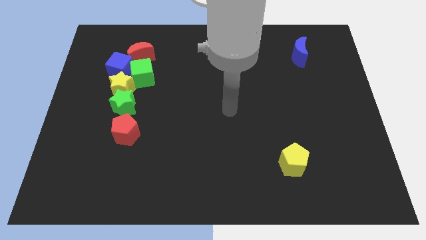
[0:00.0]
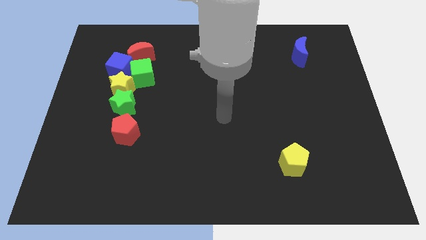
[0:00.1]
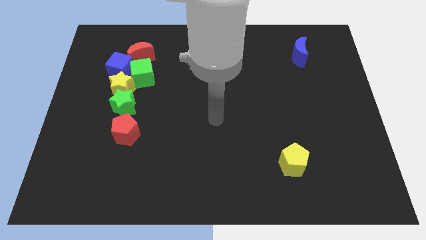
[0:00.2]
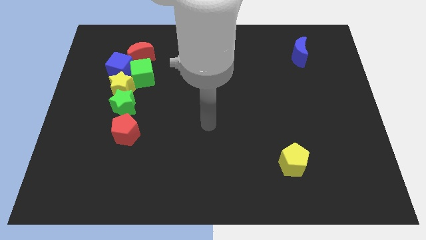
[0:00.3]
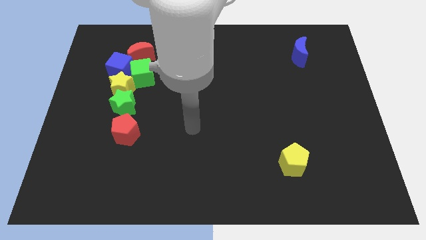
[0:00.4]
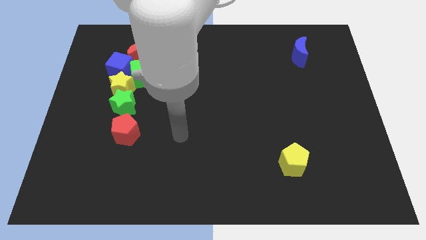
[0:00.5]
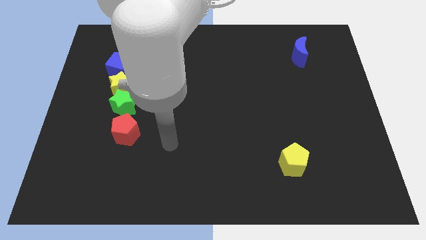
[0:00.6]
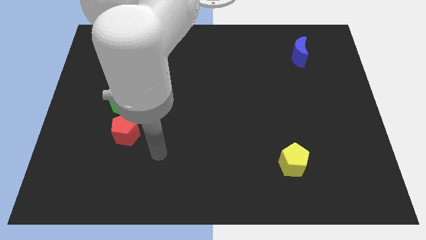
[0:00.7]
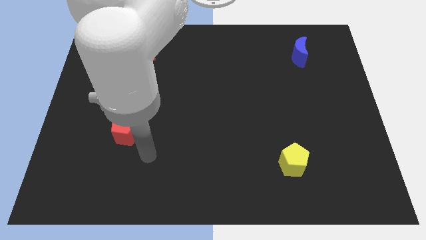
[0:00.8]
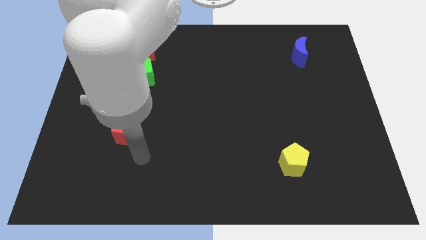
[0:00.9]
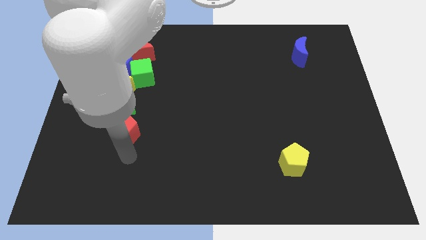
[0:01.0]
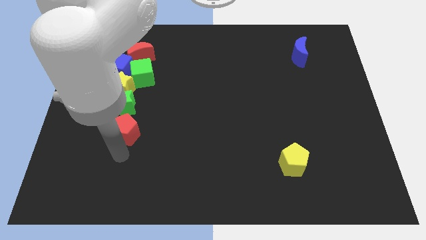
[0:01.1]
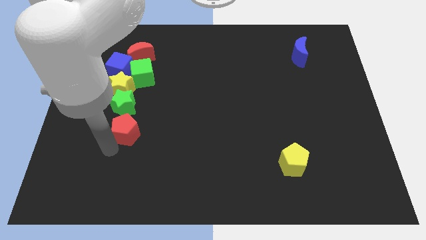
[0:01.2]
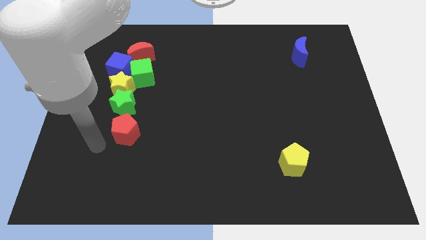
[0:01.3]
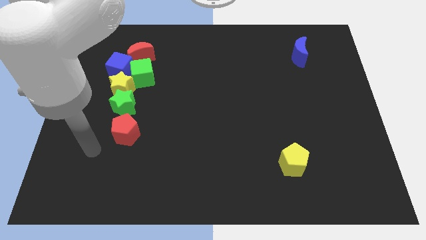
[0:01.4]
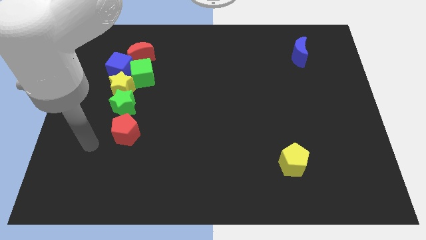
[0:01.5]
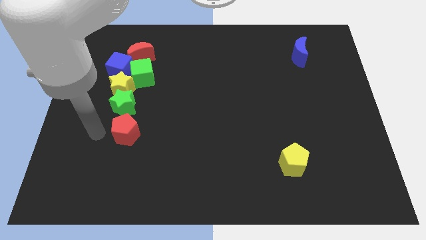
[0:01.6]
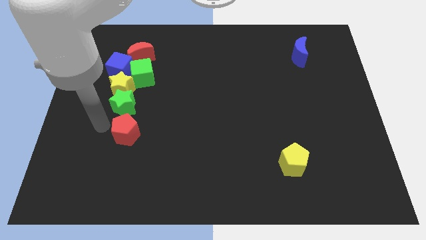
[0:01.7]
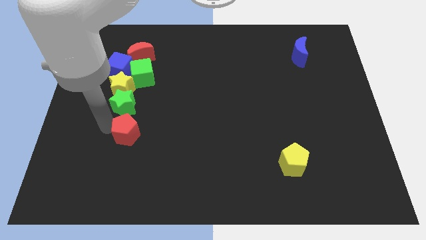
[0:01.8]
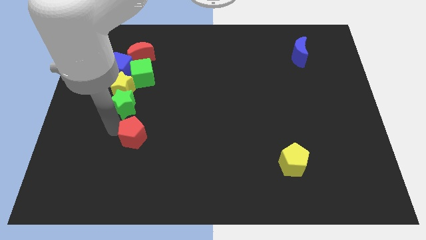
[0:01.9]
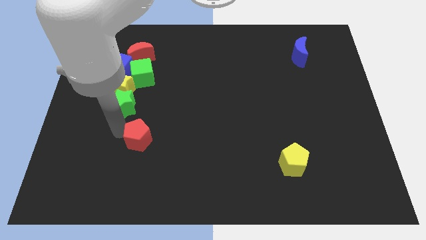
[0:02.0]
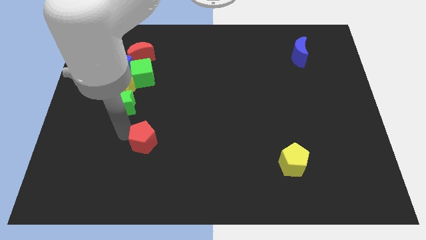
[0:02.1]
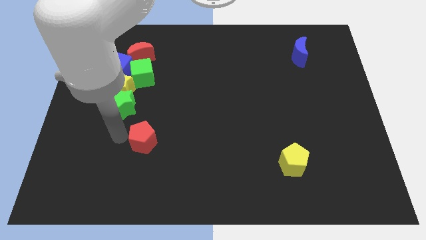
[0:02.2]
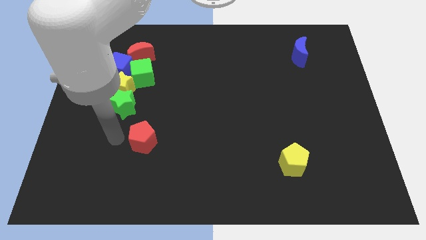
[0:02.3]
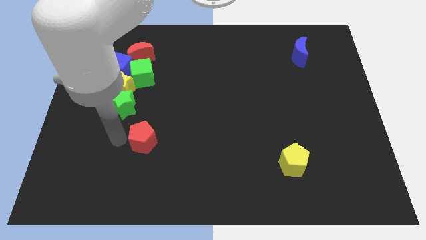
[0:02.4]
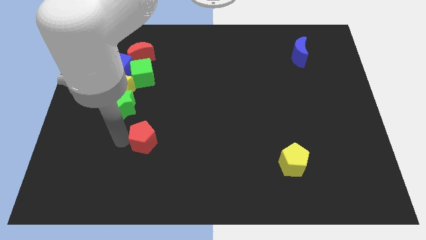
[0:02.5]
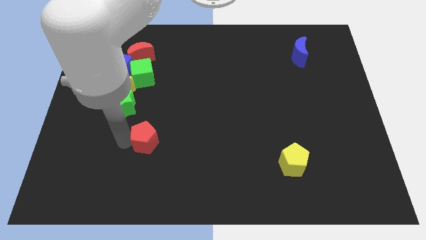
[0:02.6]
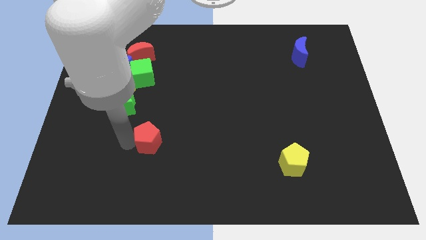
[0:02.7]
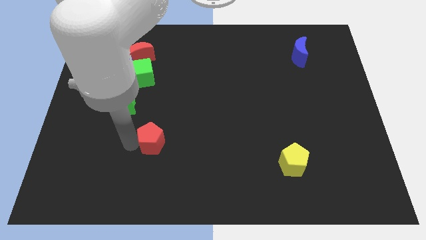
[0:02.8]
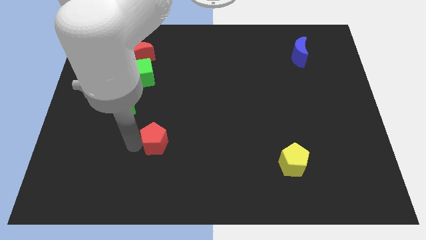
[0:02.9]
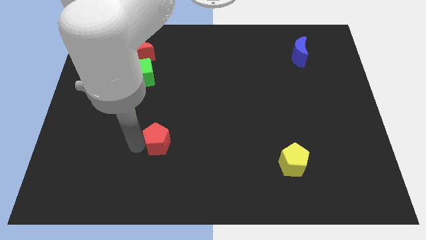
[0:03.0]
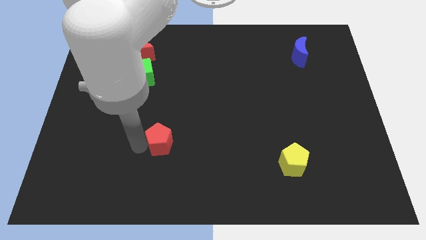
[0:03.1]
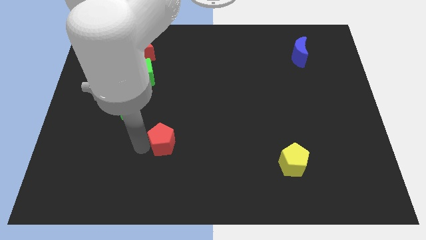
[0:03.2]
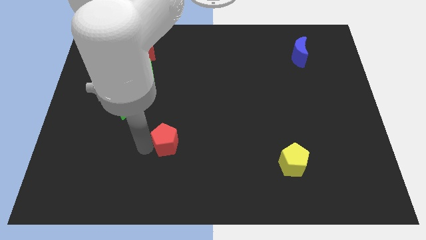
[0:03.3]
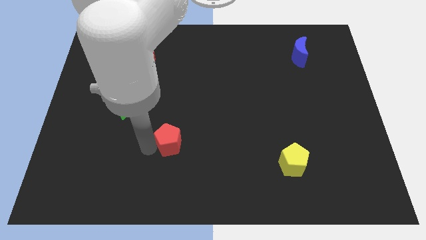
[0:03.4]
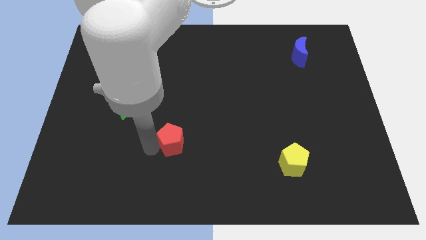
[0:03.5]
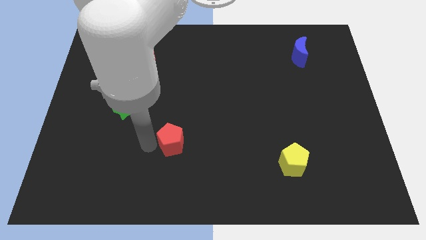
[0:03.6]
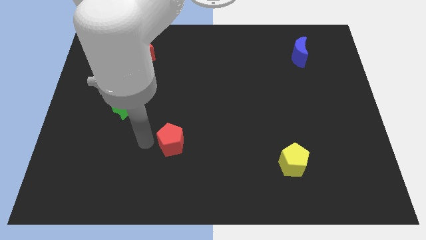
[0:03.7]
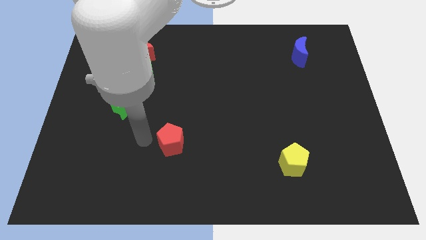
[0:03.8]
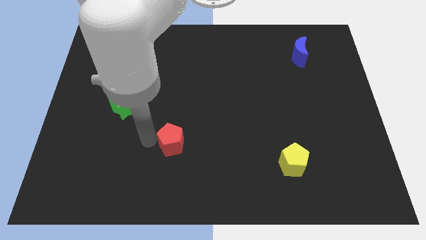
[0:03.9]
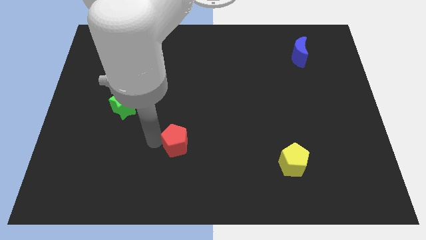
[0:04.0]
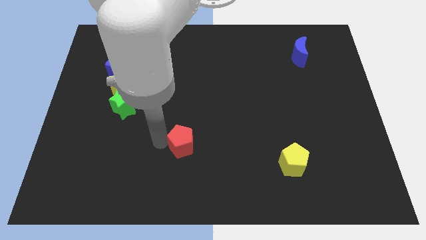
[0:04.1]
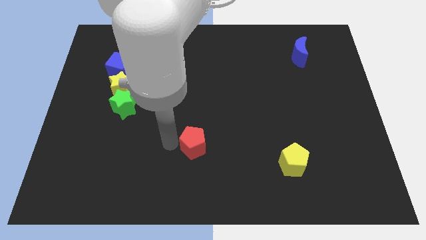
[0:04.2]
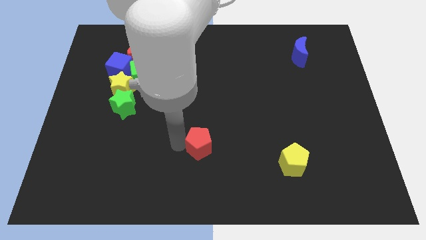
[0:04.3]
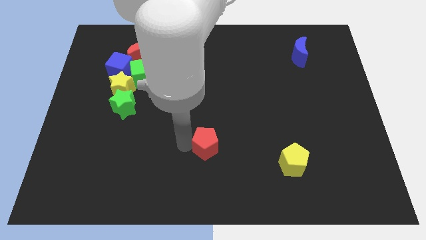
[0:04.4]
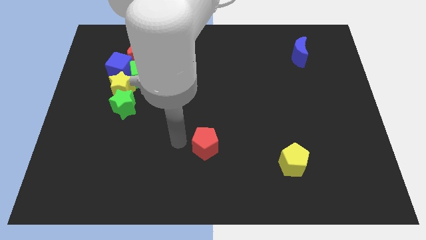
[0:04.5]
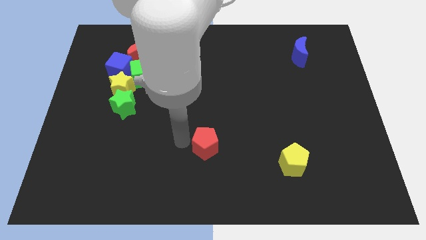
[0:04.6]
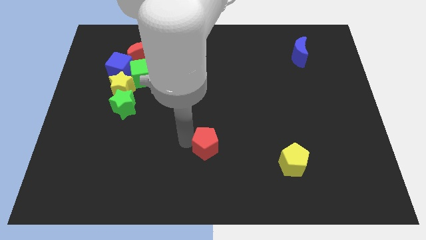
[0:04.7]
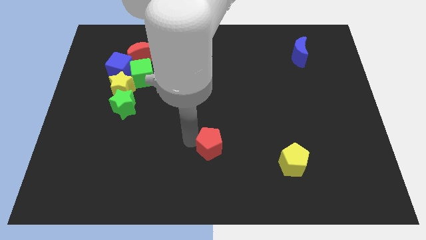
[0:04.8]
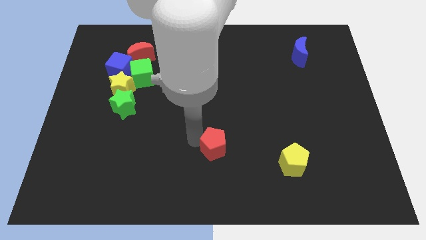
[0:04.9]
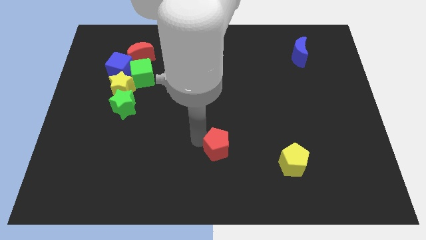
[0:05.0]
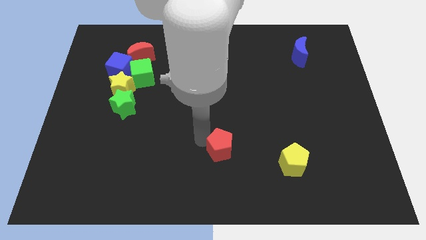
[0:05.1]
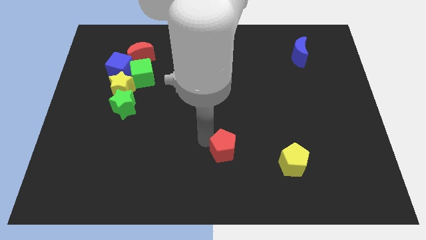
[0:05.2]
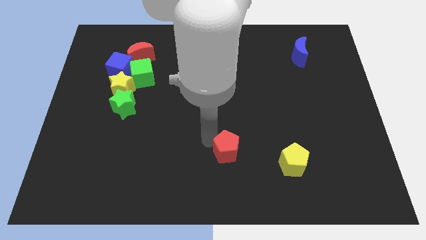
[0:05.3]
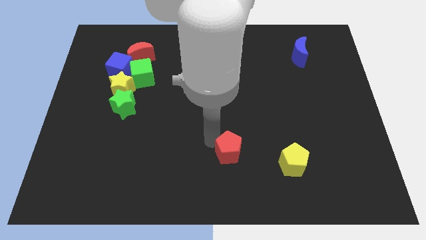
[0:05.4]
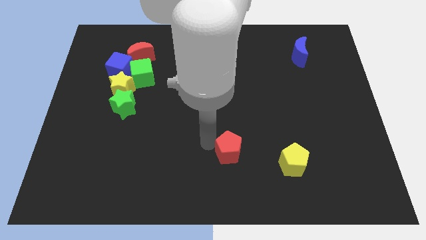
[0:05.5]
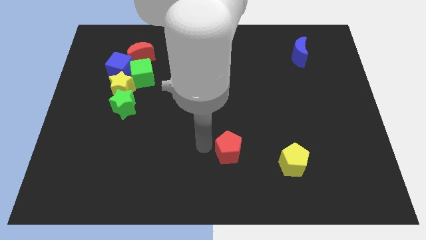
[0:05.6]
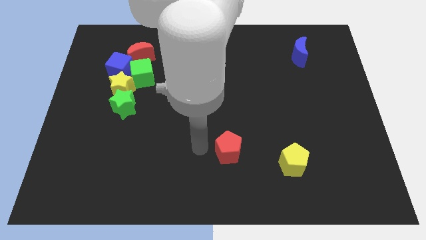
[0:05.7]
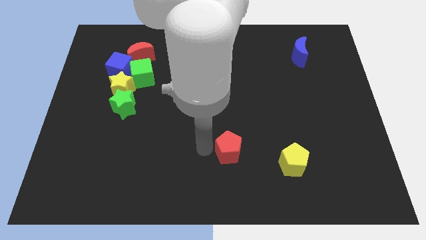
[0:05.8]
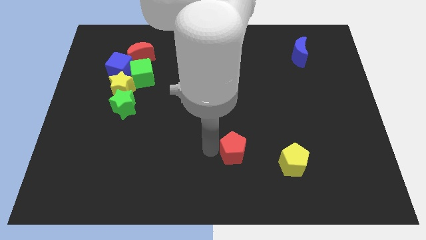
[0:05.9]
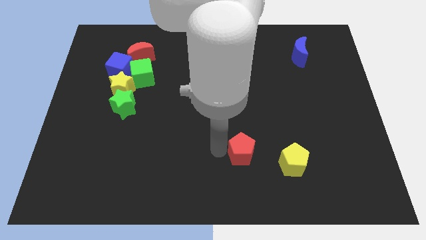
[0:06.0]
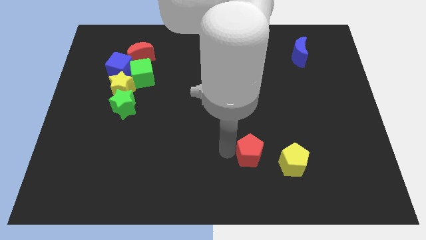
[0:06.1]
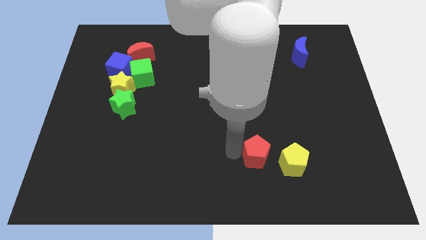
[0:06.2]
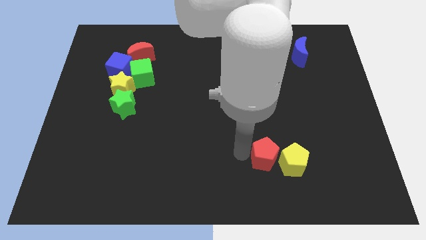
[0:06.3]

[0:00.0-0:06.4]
push the red pentagon towards the yellow pentagon
